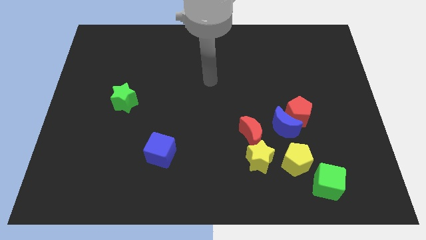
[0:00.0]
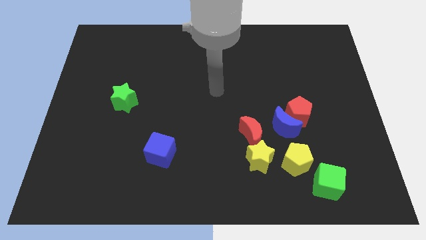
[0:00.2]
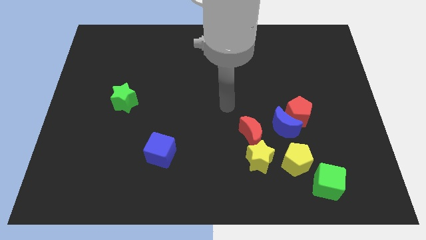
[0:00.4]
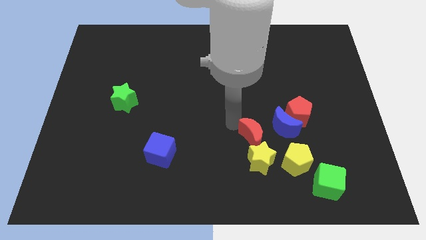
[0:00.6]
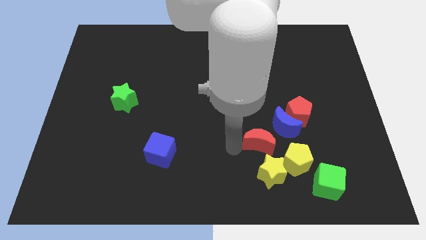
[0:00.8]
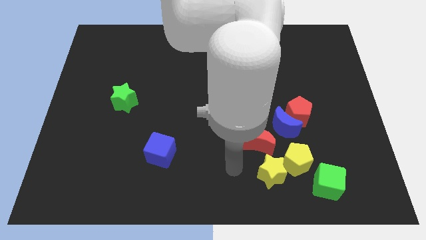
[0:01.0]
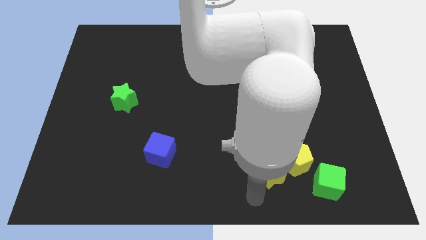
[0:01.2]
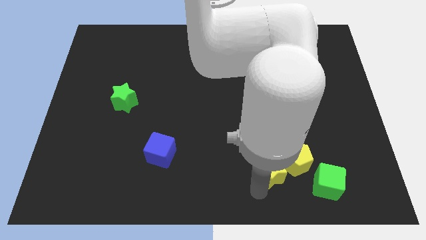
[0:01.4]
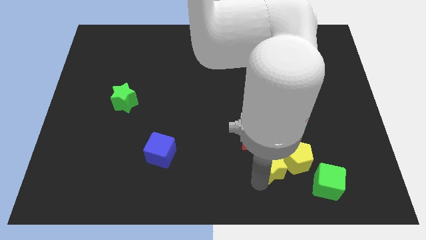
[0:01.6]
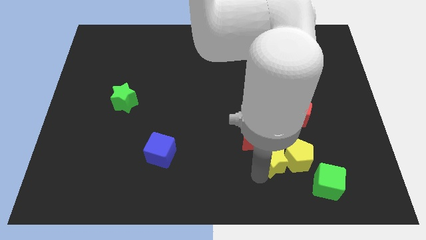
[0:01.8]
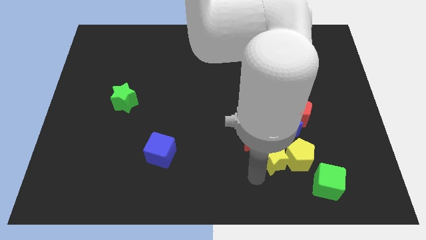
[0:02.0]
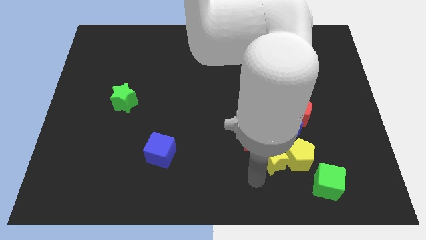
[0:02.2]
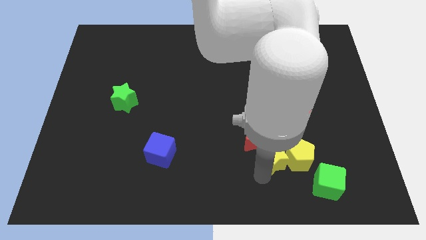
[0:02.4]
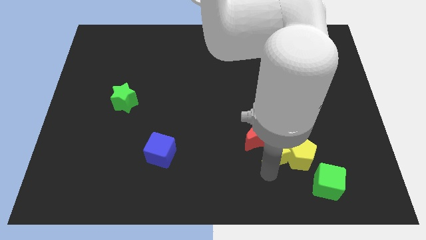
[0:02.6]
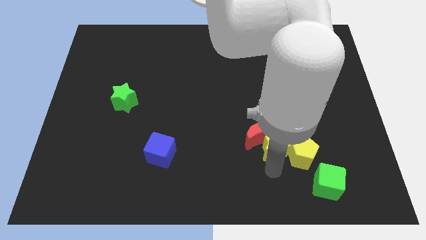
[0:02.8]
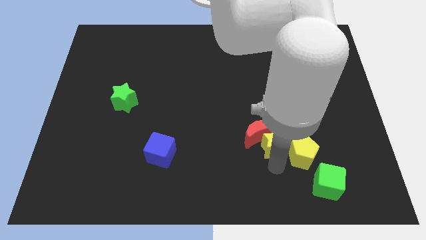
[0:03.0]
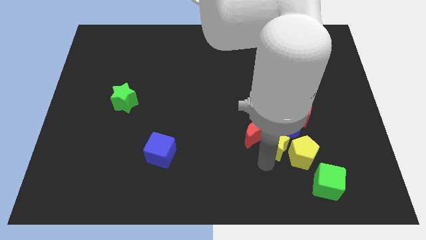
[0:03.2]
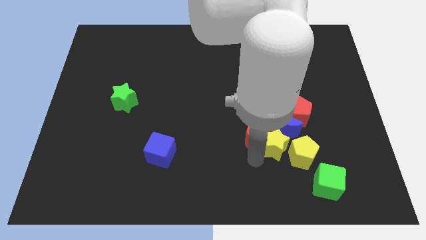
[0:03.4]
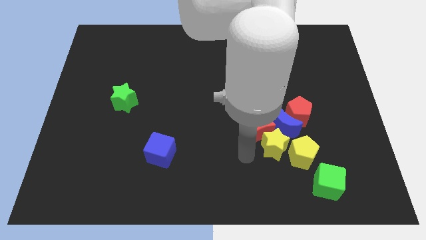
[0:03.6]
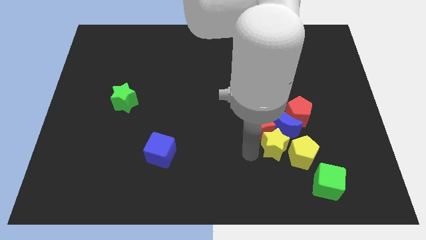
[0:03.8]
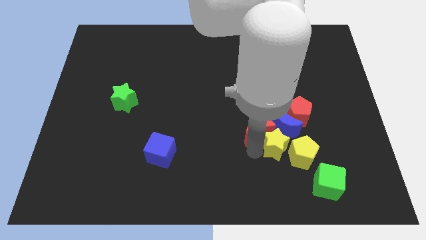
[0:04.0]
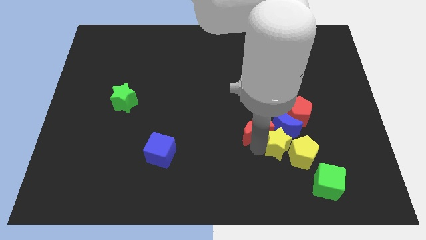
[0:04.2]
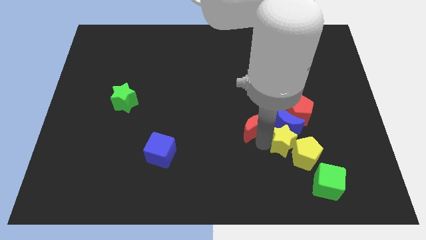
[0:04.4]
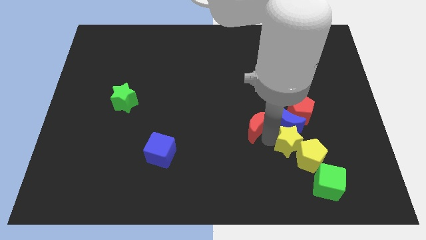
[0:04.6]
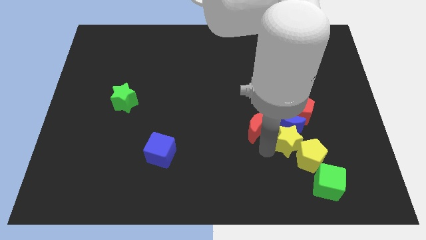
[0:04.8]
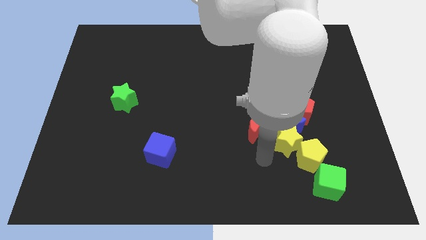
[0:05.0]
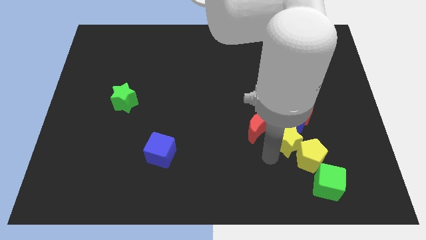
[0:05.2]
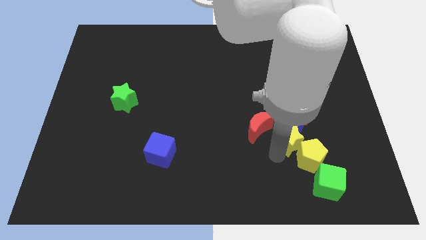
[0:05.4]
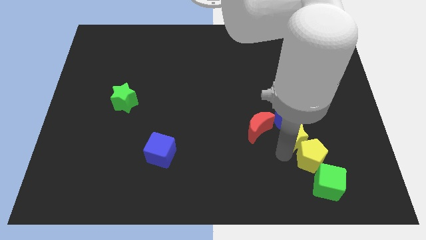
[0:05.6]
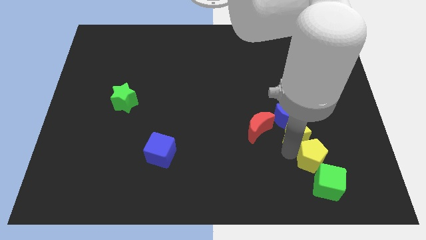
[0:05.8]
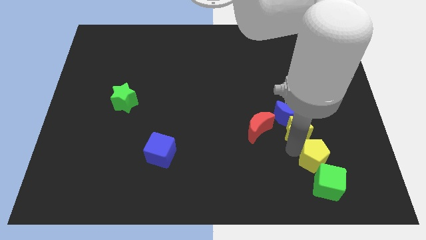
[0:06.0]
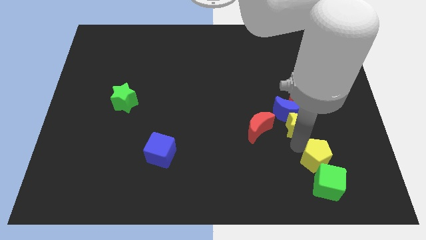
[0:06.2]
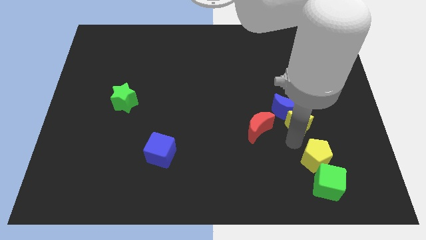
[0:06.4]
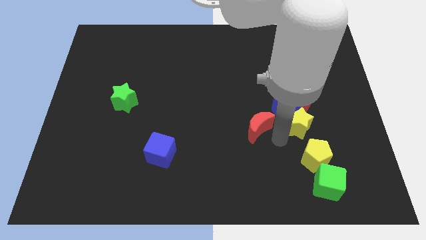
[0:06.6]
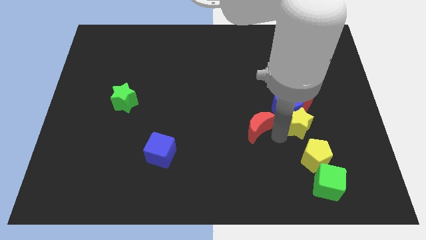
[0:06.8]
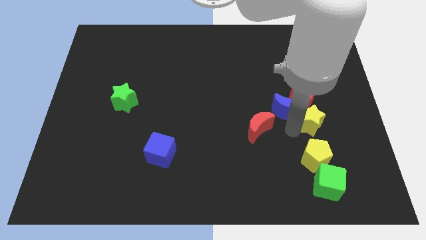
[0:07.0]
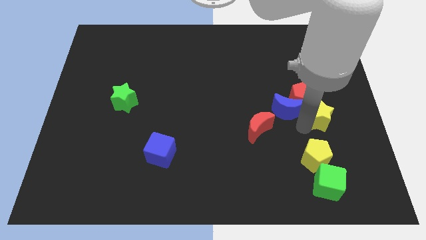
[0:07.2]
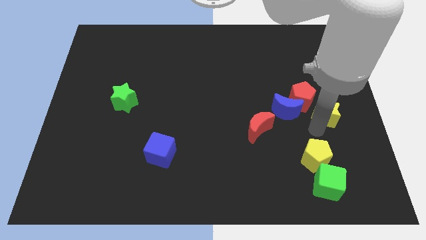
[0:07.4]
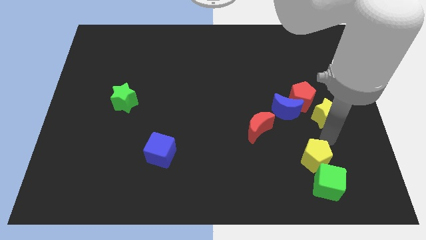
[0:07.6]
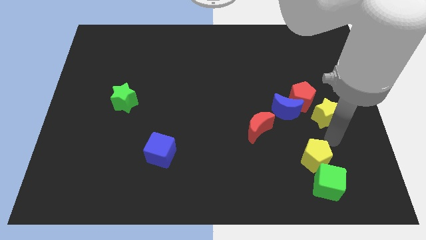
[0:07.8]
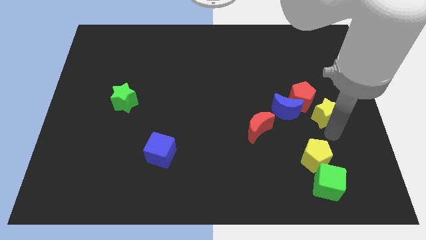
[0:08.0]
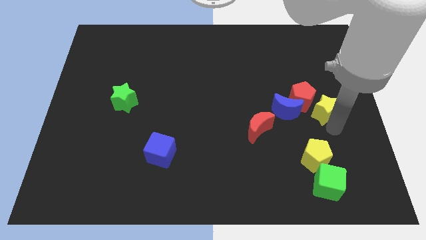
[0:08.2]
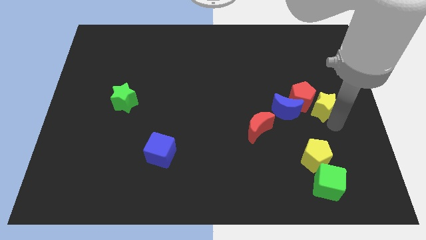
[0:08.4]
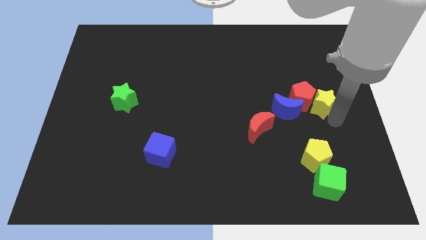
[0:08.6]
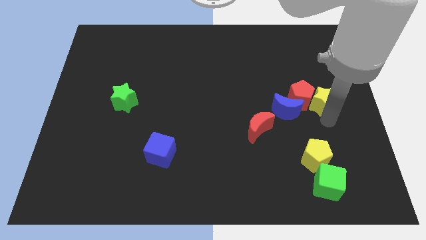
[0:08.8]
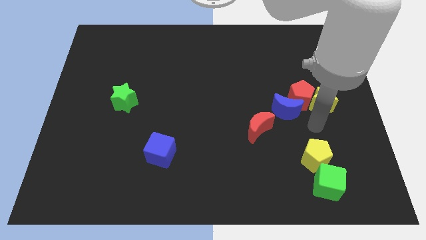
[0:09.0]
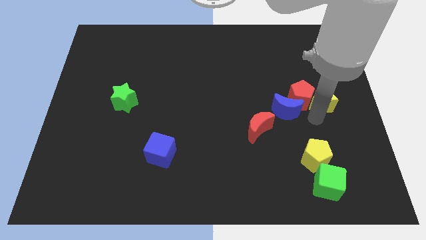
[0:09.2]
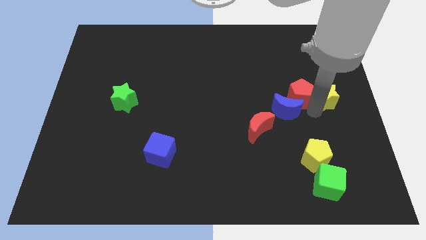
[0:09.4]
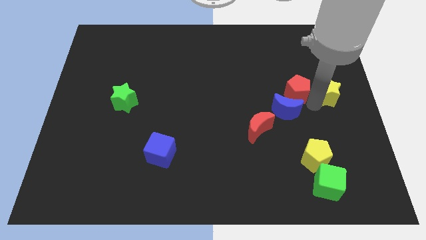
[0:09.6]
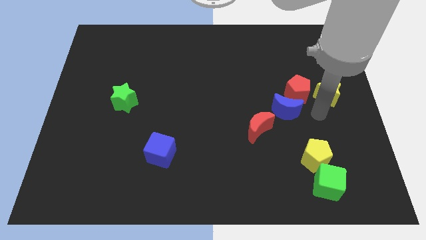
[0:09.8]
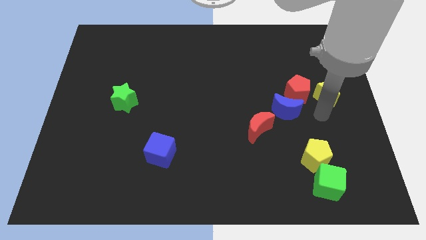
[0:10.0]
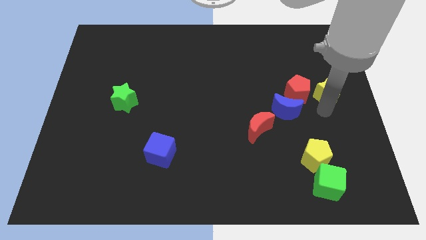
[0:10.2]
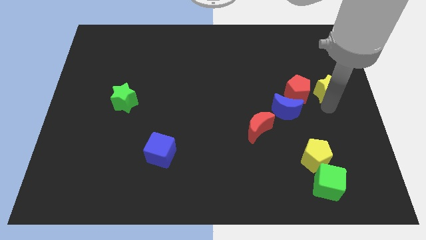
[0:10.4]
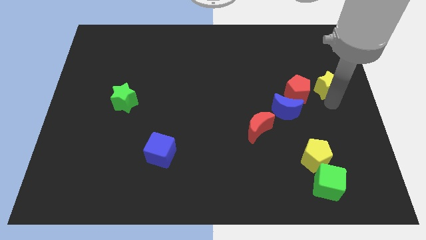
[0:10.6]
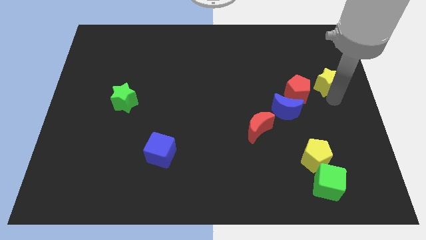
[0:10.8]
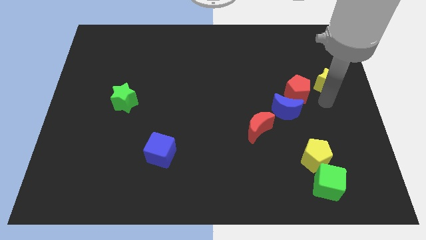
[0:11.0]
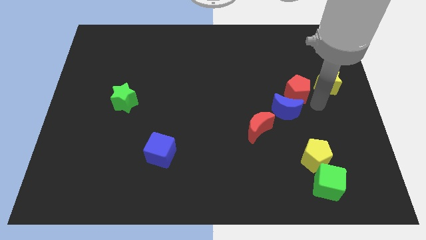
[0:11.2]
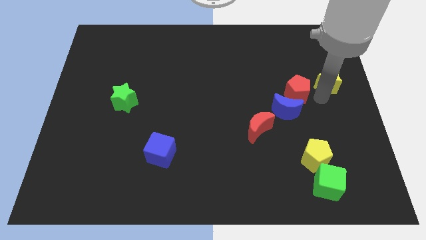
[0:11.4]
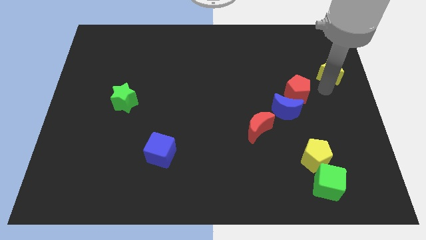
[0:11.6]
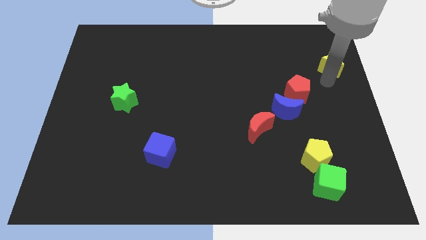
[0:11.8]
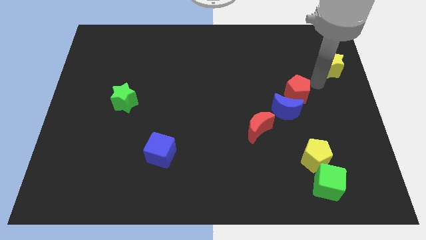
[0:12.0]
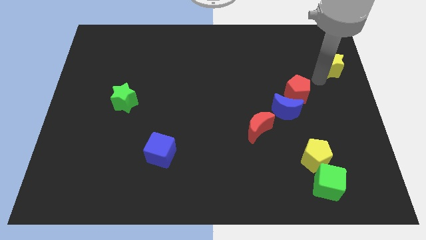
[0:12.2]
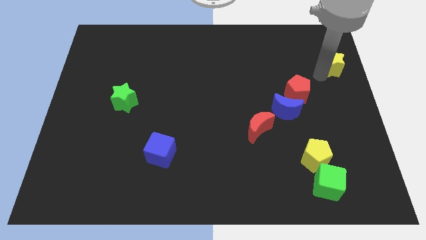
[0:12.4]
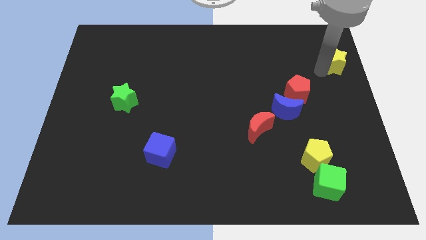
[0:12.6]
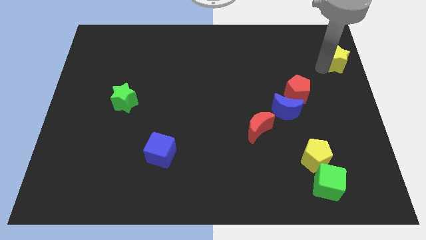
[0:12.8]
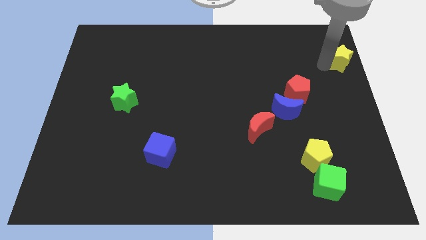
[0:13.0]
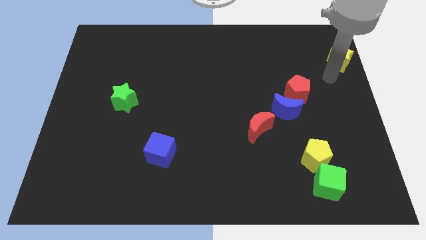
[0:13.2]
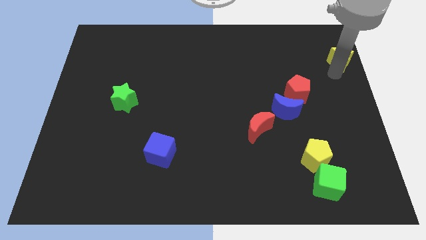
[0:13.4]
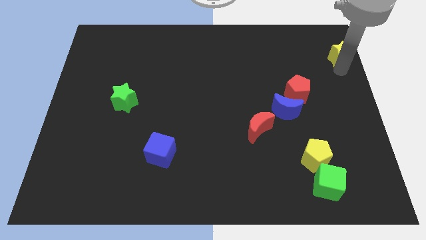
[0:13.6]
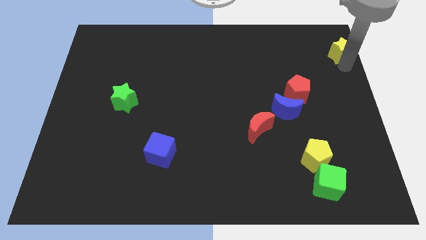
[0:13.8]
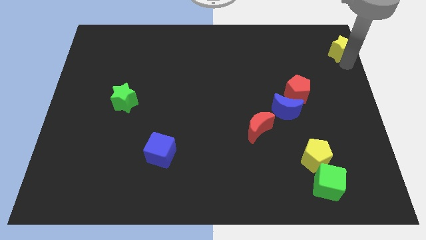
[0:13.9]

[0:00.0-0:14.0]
push the yellow star to the top right of the board
